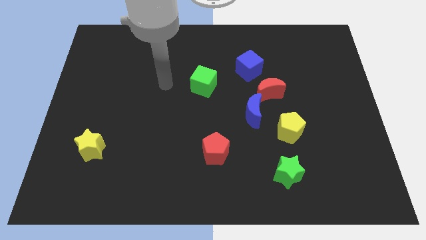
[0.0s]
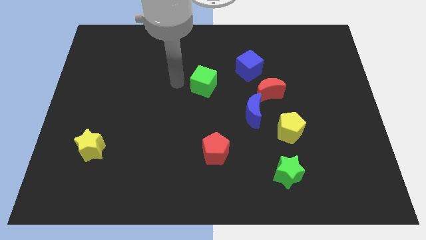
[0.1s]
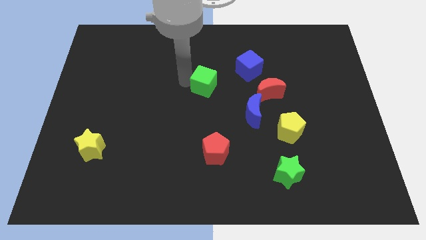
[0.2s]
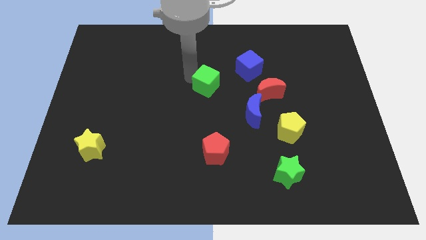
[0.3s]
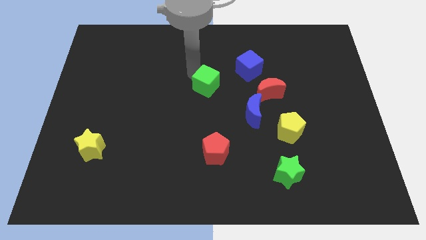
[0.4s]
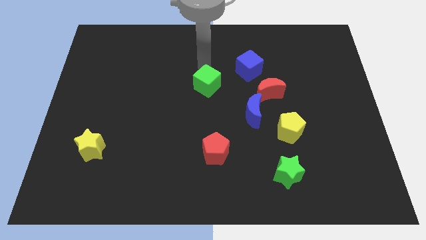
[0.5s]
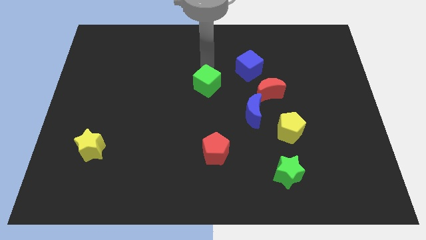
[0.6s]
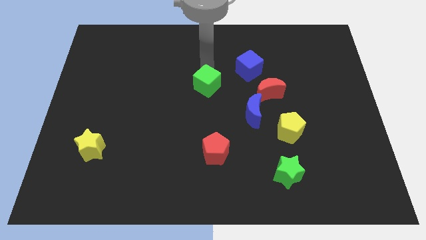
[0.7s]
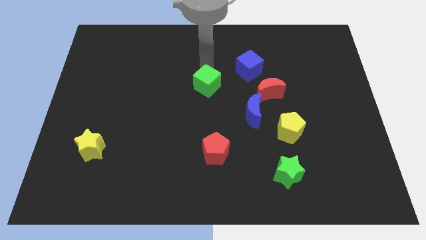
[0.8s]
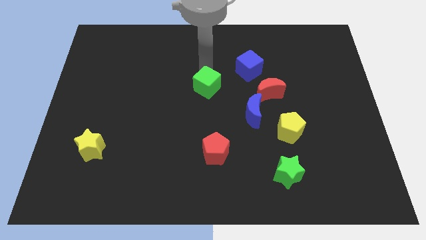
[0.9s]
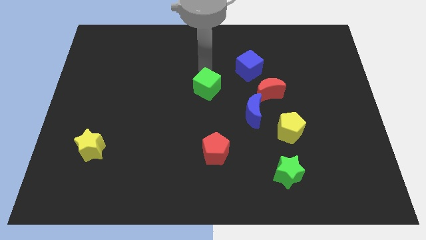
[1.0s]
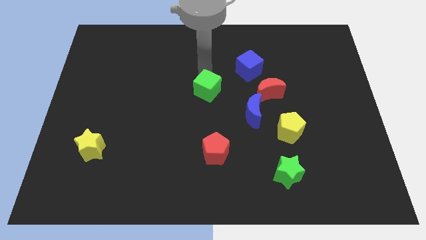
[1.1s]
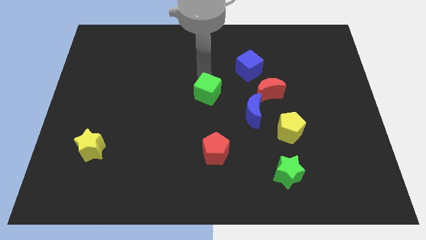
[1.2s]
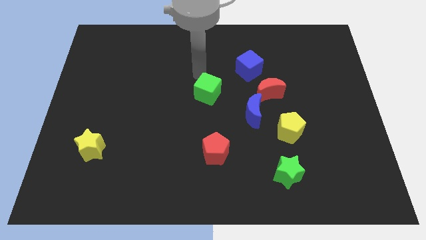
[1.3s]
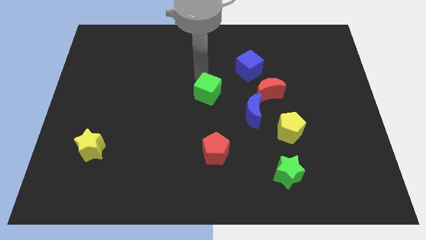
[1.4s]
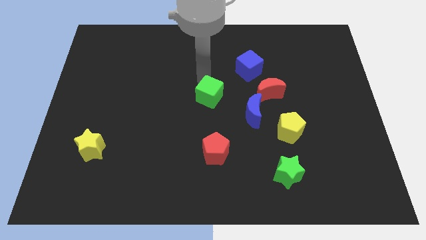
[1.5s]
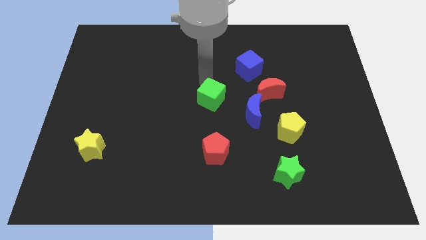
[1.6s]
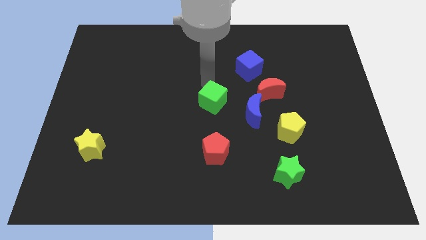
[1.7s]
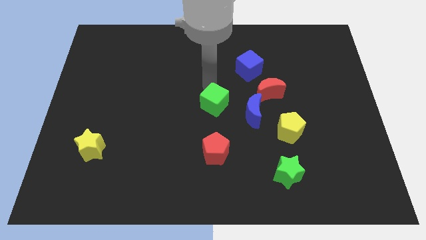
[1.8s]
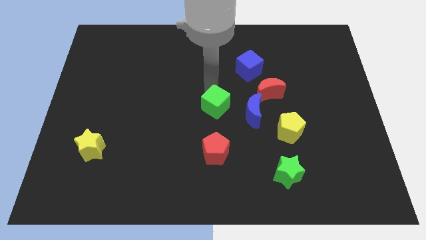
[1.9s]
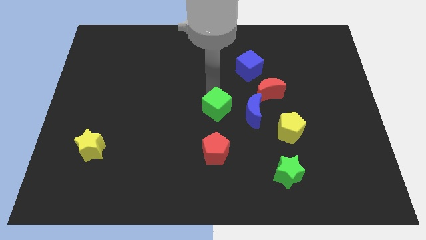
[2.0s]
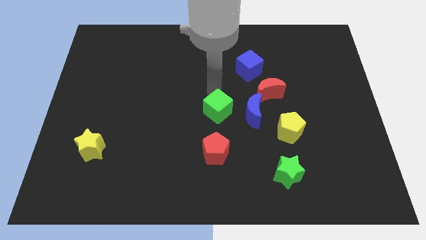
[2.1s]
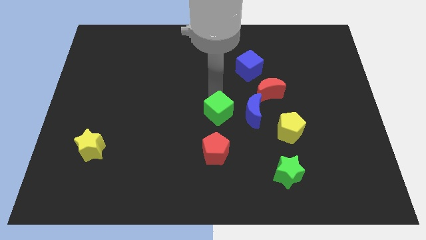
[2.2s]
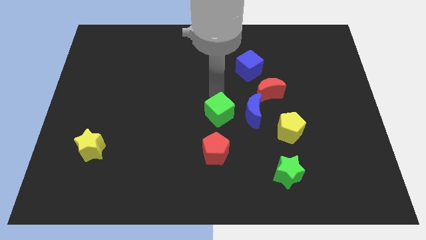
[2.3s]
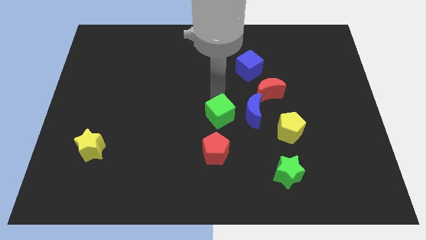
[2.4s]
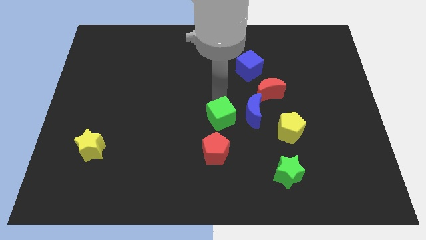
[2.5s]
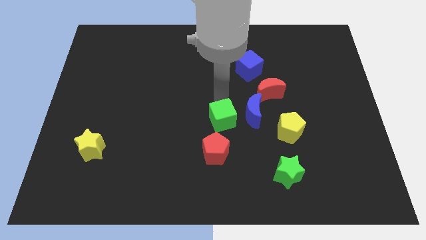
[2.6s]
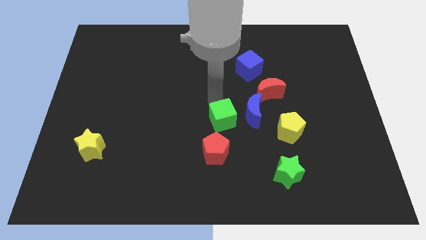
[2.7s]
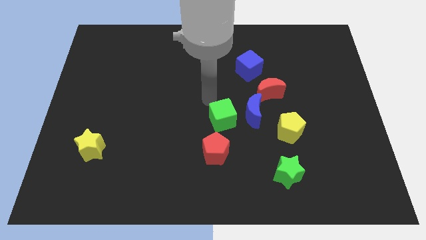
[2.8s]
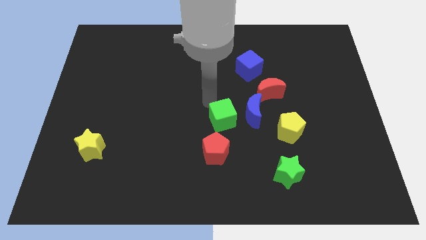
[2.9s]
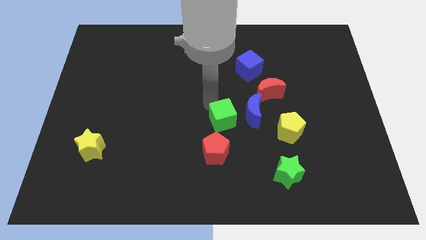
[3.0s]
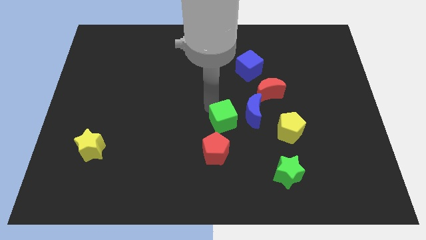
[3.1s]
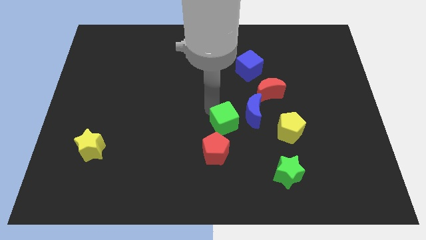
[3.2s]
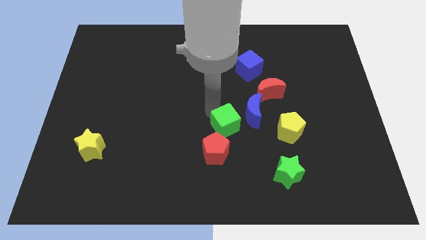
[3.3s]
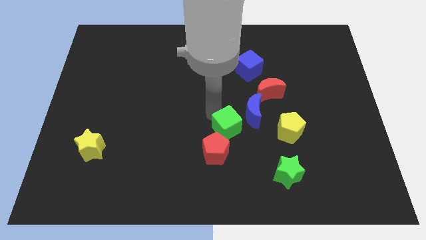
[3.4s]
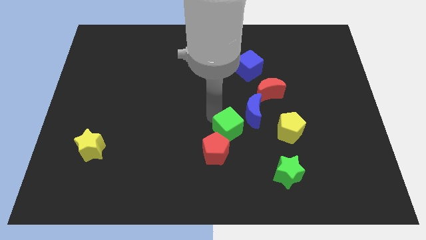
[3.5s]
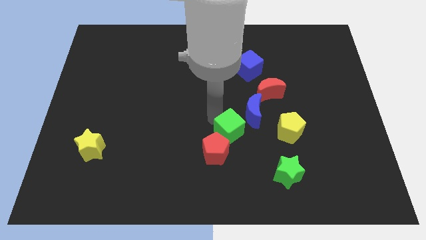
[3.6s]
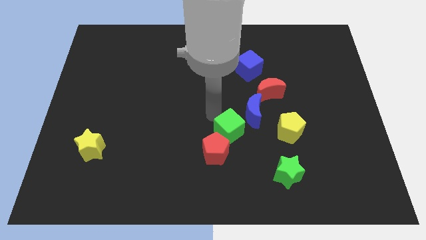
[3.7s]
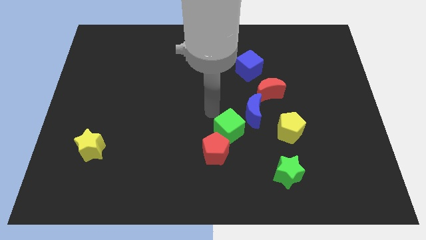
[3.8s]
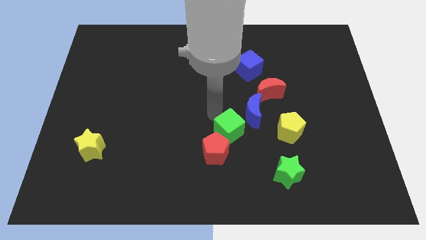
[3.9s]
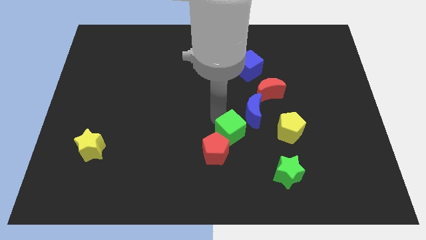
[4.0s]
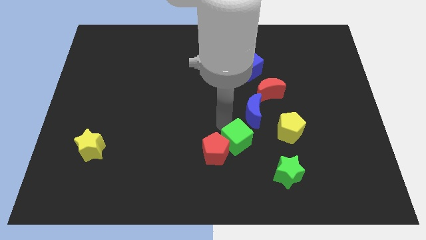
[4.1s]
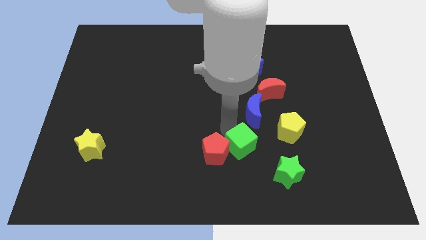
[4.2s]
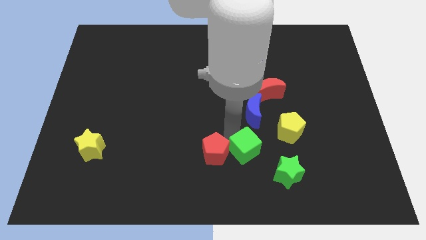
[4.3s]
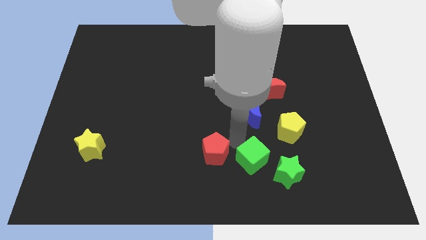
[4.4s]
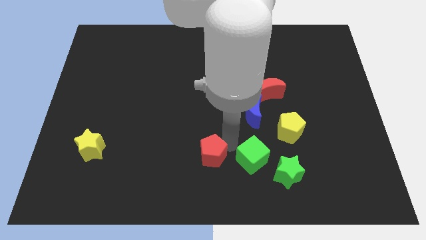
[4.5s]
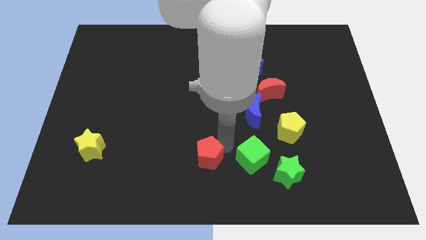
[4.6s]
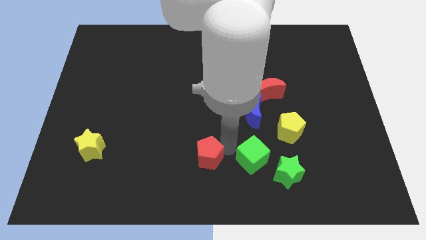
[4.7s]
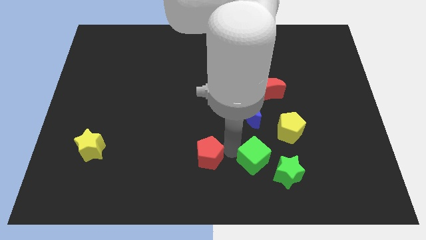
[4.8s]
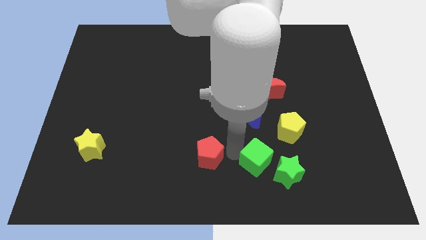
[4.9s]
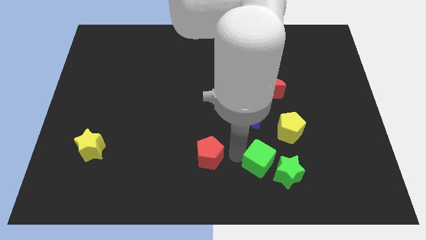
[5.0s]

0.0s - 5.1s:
put the green cube towards the green star

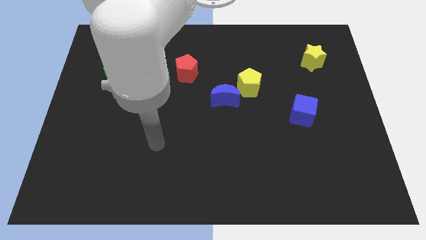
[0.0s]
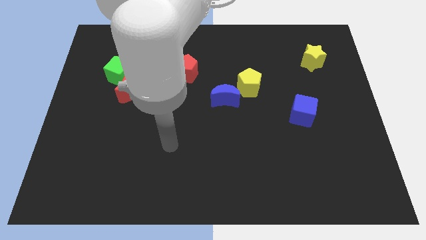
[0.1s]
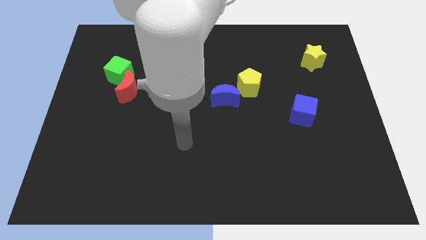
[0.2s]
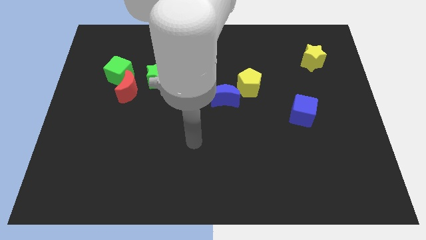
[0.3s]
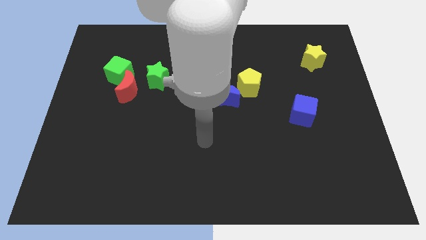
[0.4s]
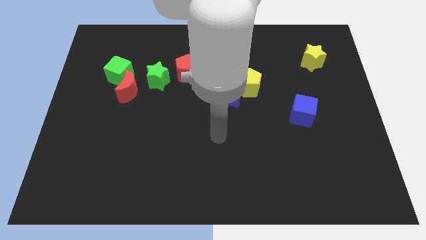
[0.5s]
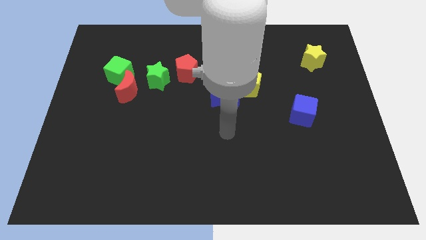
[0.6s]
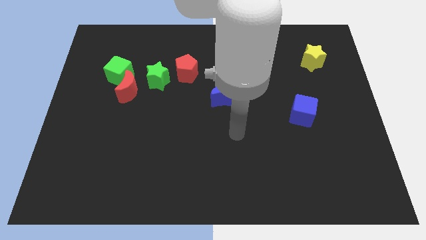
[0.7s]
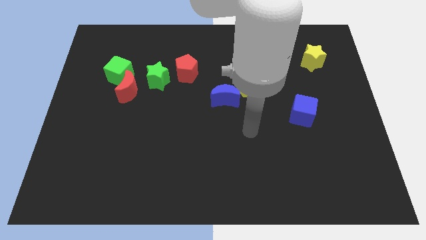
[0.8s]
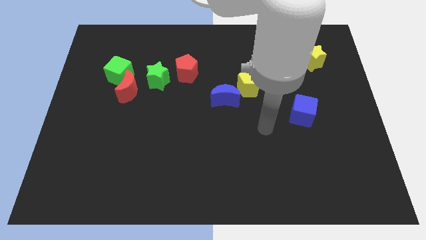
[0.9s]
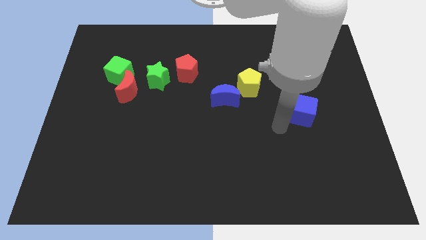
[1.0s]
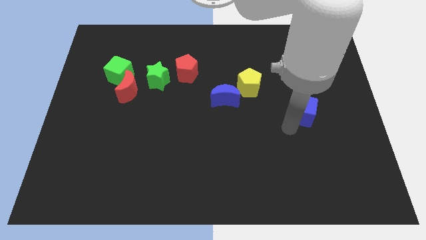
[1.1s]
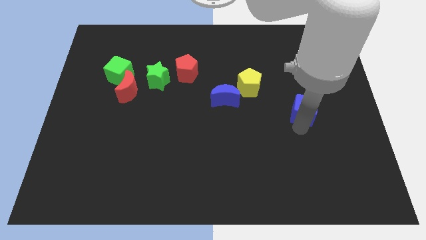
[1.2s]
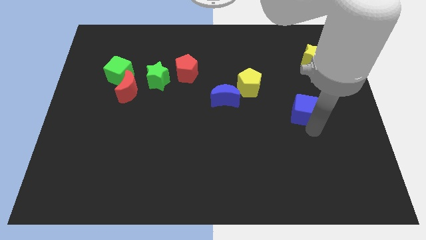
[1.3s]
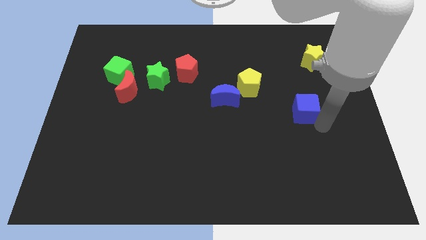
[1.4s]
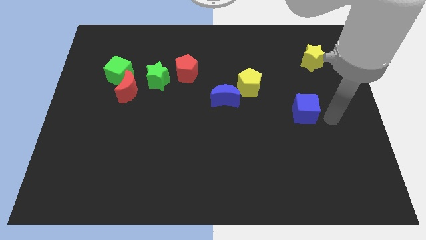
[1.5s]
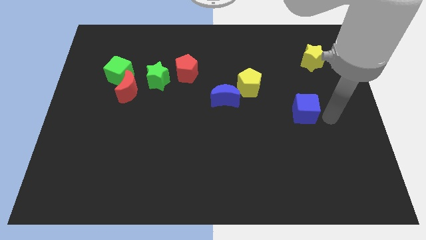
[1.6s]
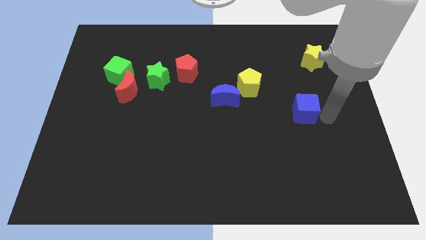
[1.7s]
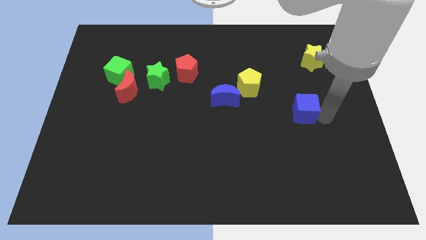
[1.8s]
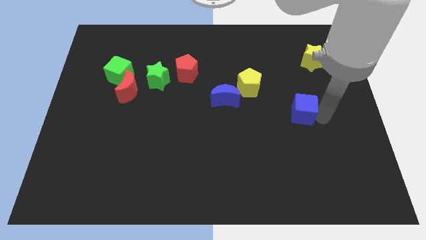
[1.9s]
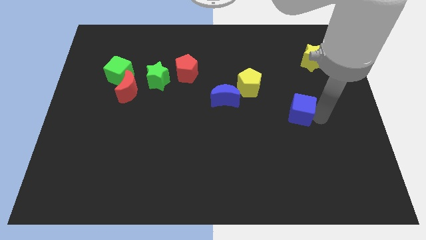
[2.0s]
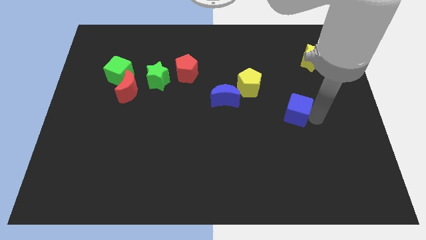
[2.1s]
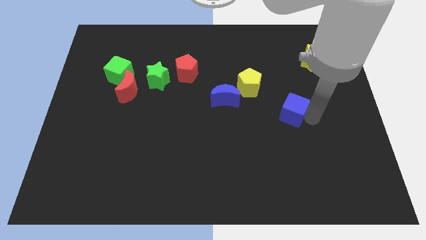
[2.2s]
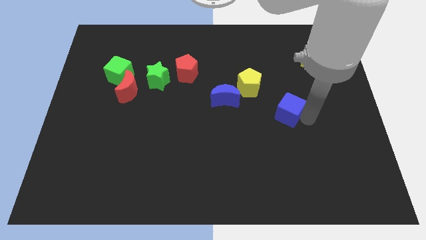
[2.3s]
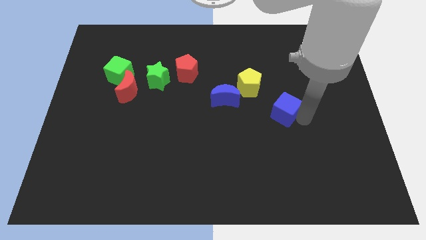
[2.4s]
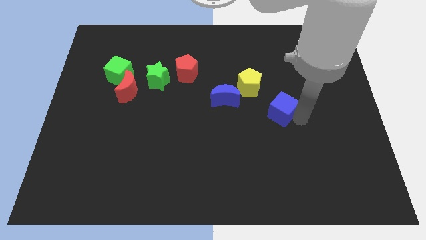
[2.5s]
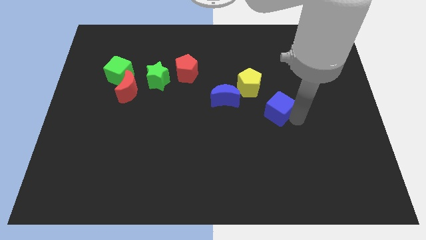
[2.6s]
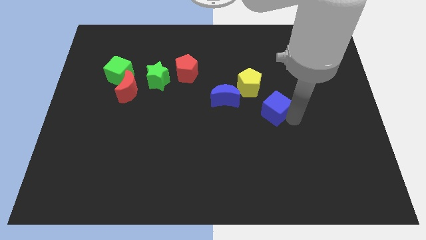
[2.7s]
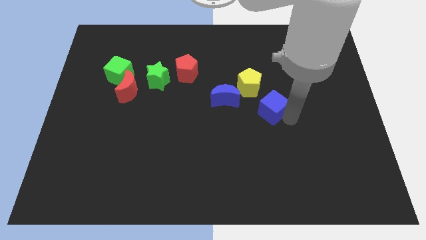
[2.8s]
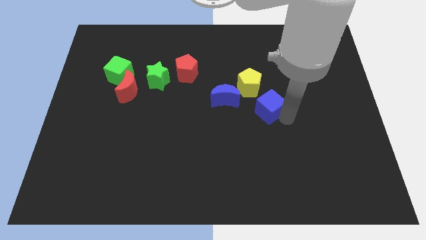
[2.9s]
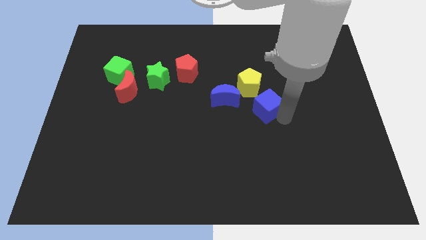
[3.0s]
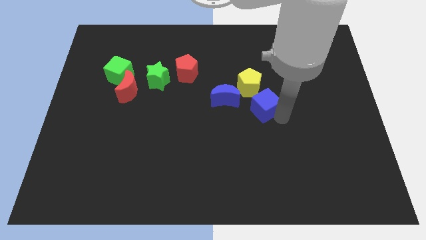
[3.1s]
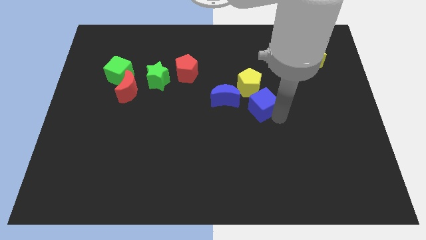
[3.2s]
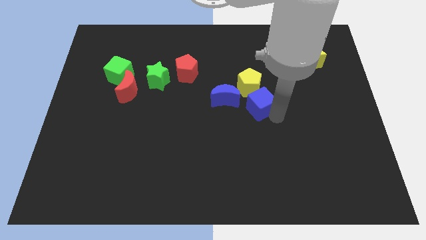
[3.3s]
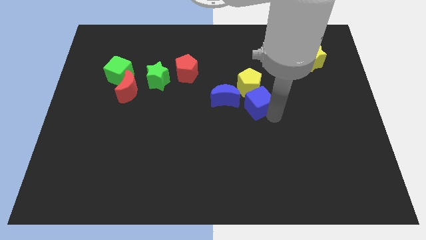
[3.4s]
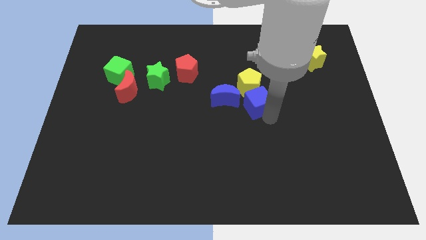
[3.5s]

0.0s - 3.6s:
slide the blue cube to the yellow pentagon
